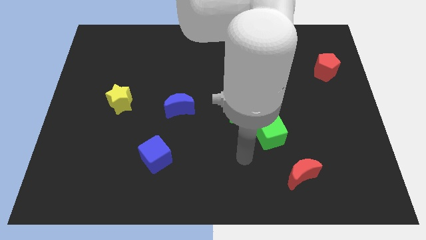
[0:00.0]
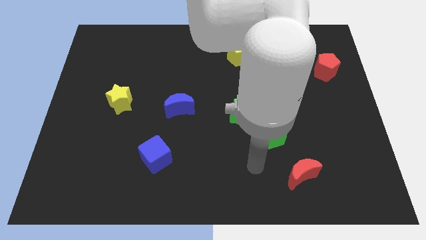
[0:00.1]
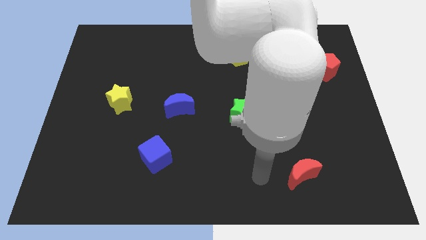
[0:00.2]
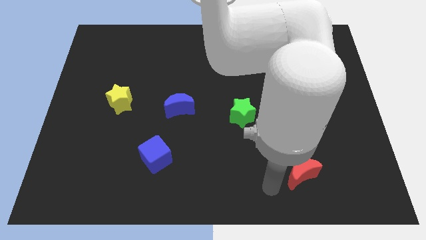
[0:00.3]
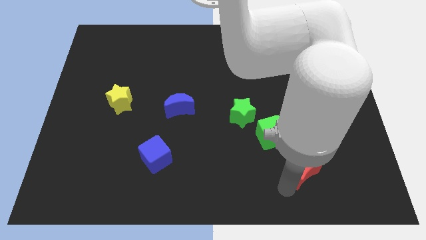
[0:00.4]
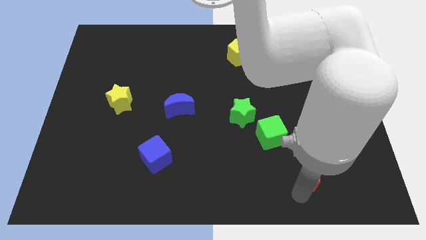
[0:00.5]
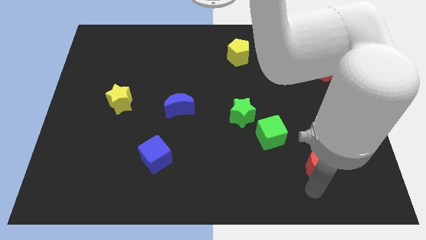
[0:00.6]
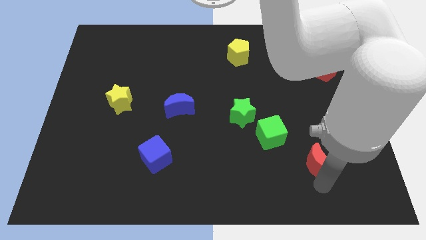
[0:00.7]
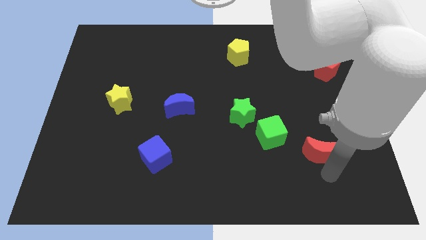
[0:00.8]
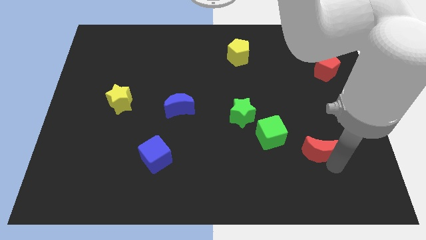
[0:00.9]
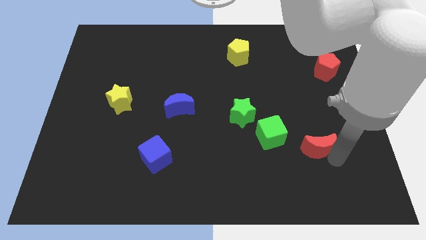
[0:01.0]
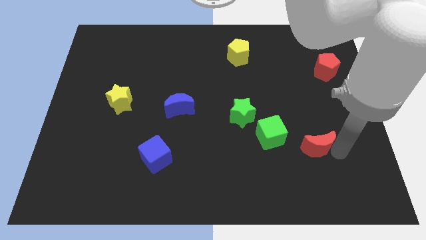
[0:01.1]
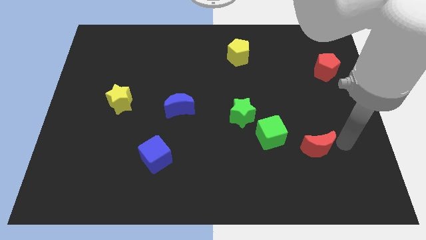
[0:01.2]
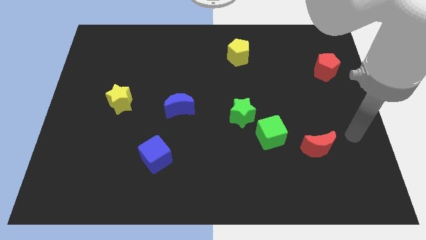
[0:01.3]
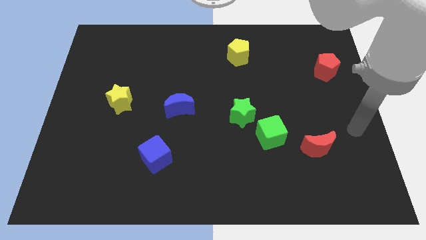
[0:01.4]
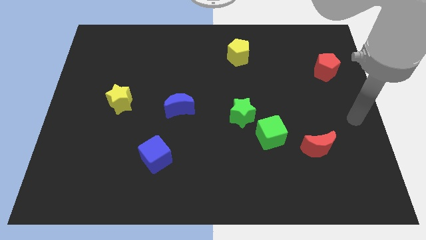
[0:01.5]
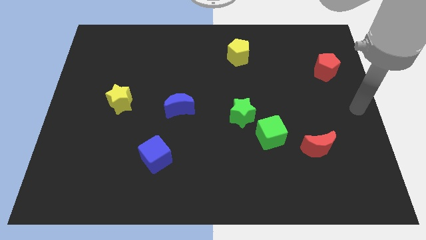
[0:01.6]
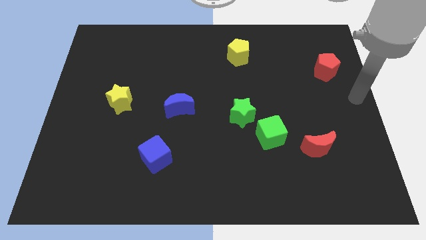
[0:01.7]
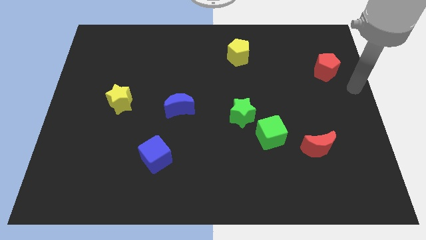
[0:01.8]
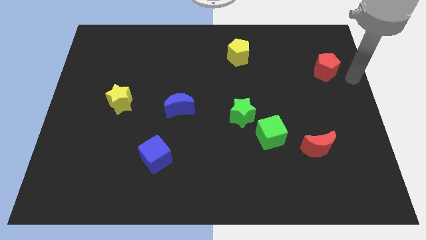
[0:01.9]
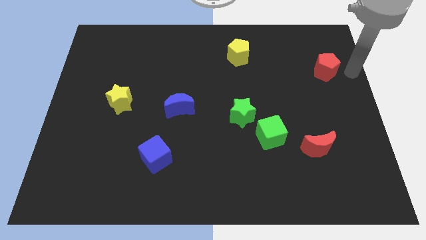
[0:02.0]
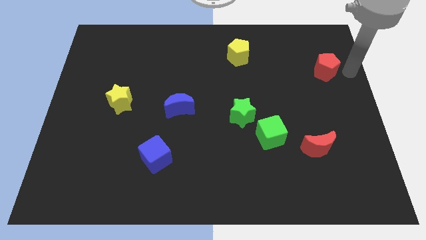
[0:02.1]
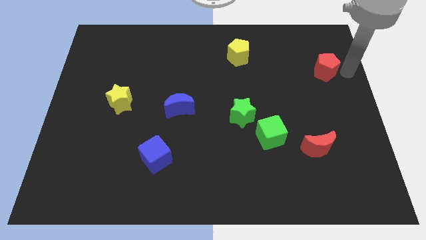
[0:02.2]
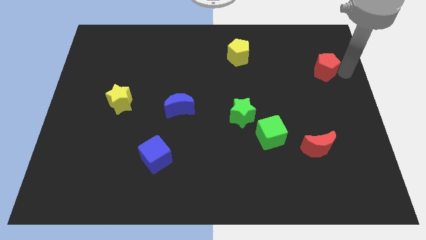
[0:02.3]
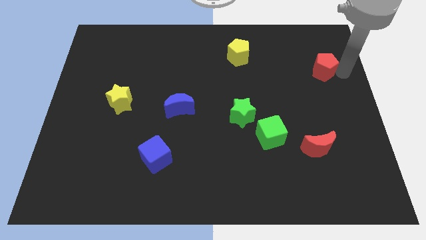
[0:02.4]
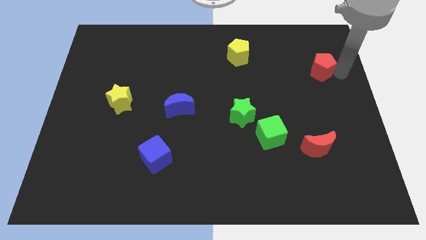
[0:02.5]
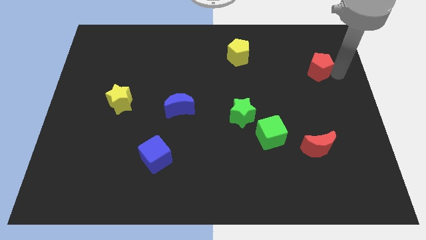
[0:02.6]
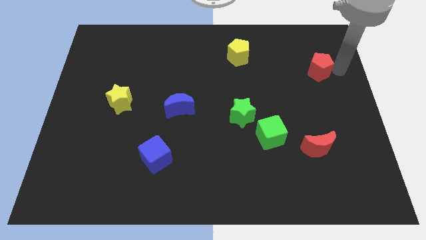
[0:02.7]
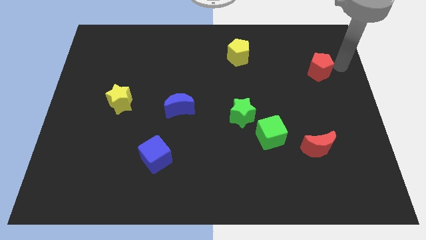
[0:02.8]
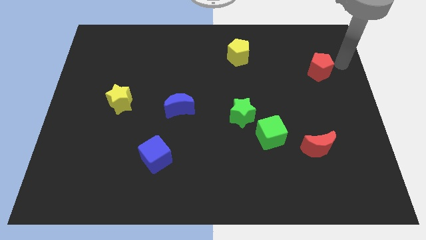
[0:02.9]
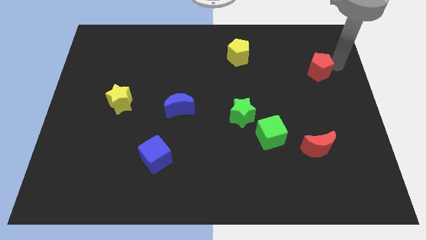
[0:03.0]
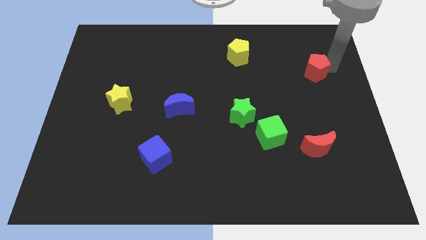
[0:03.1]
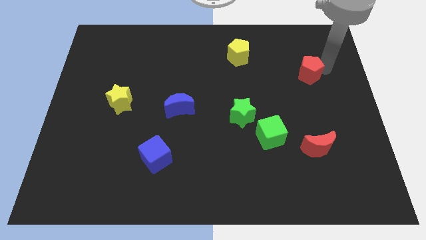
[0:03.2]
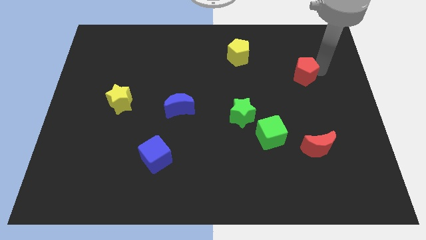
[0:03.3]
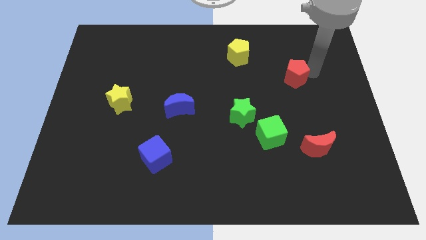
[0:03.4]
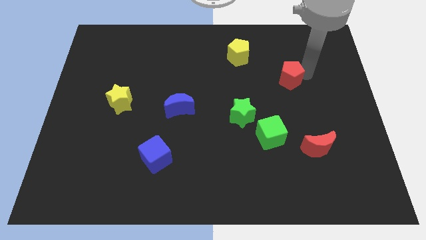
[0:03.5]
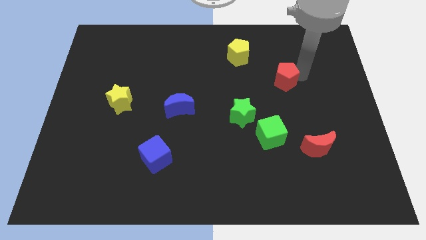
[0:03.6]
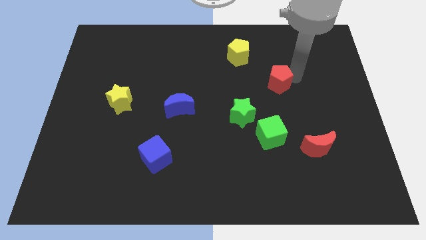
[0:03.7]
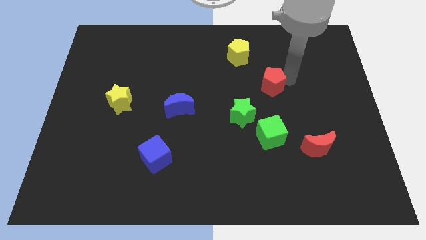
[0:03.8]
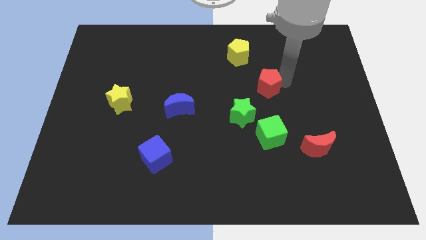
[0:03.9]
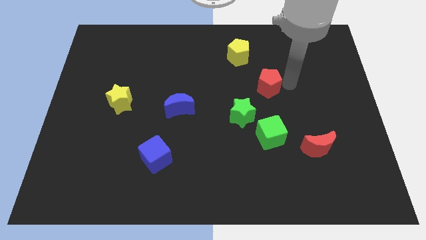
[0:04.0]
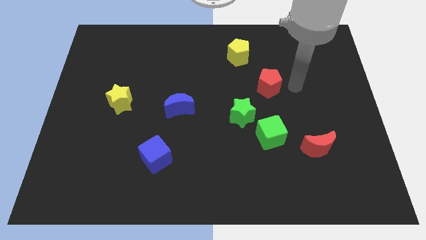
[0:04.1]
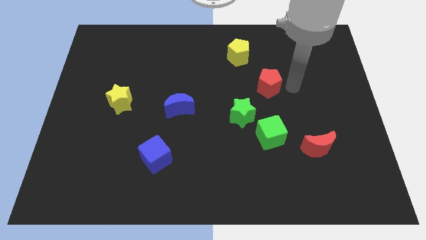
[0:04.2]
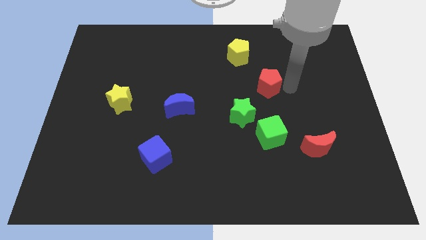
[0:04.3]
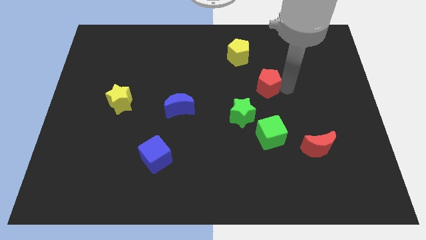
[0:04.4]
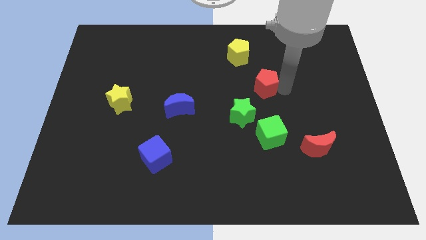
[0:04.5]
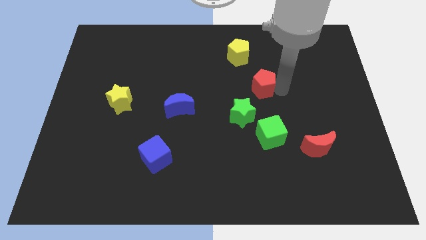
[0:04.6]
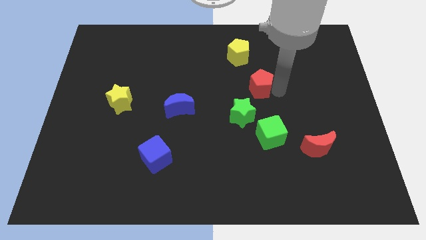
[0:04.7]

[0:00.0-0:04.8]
put the red pentagon to the bottom of the yellow pentagon

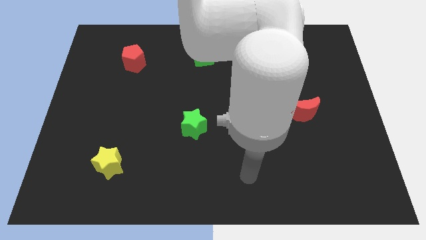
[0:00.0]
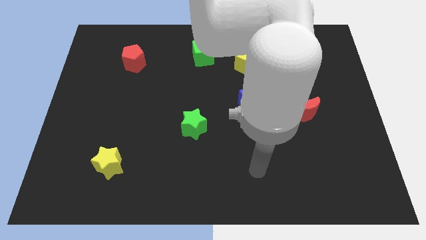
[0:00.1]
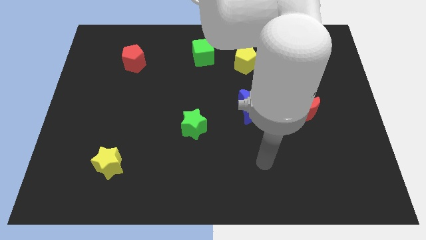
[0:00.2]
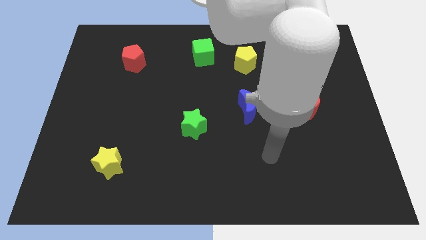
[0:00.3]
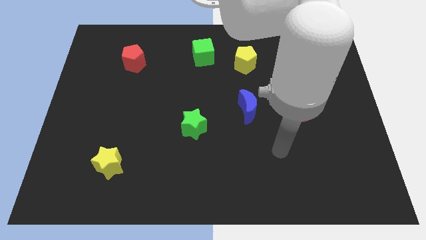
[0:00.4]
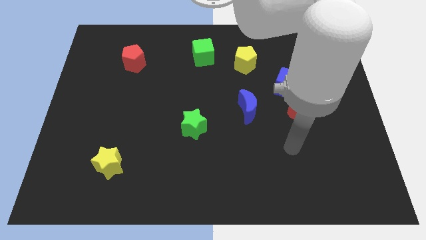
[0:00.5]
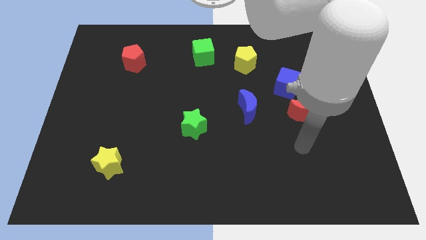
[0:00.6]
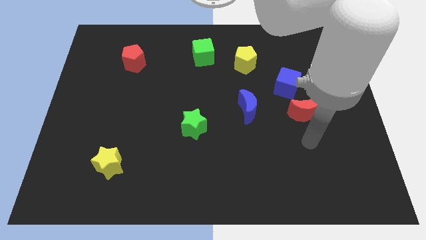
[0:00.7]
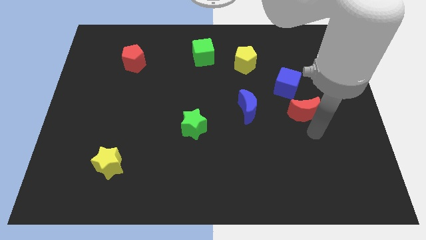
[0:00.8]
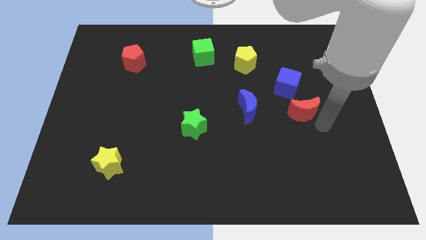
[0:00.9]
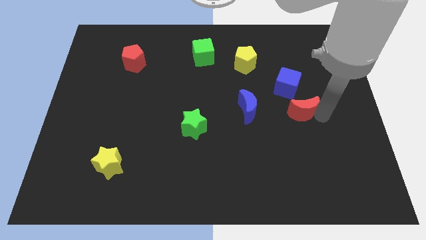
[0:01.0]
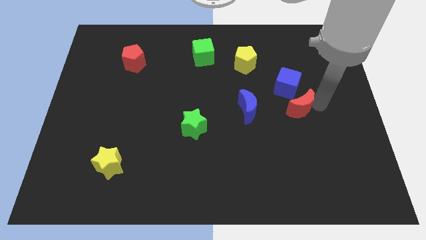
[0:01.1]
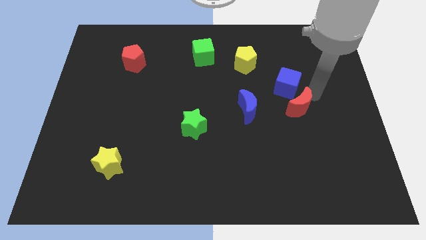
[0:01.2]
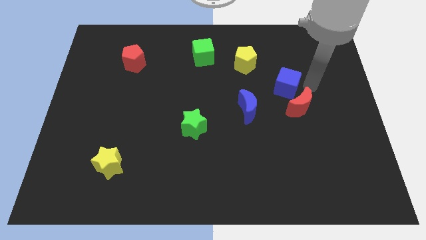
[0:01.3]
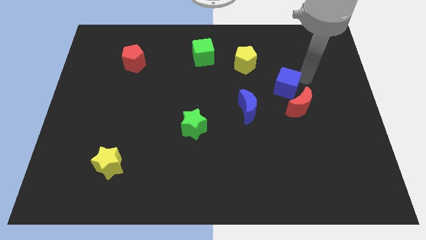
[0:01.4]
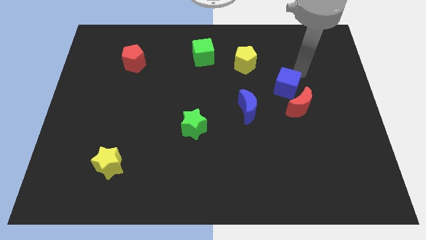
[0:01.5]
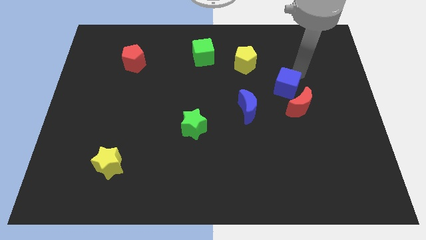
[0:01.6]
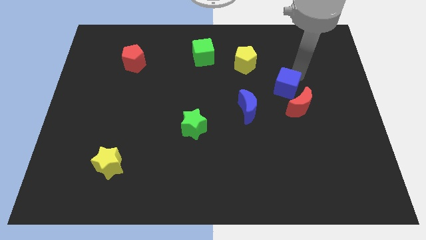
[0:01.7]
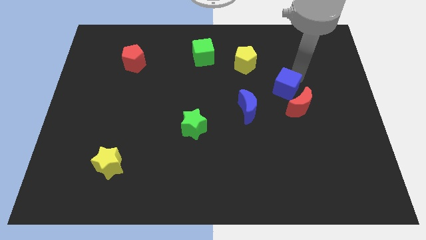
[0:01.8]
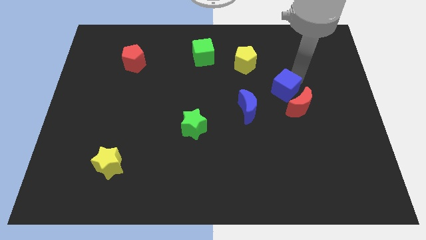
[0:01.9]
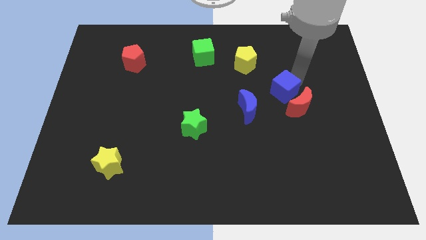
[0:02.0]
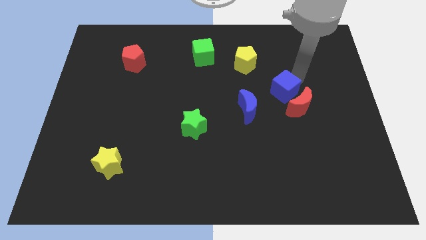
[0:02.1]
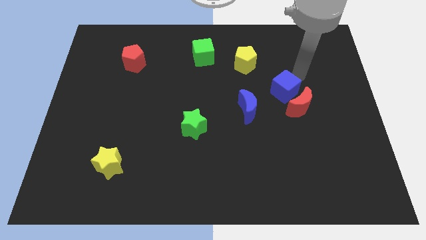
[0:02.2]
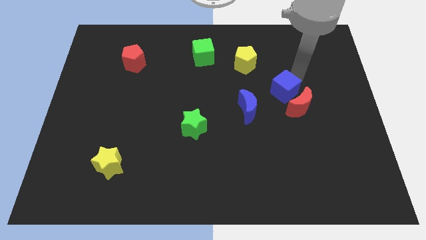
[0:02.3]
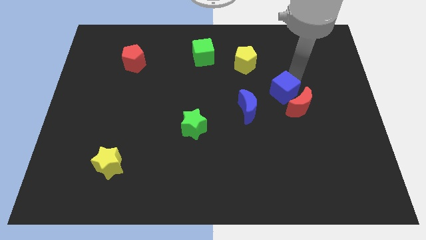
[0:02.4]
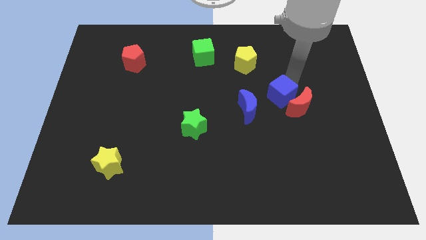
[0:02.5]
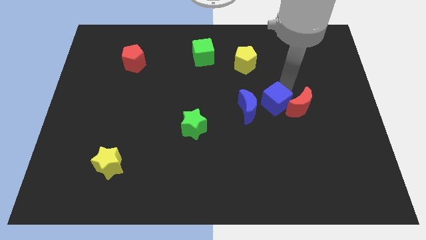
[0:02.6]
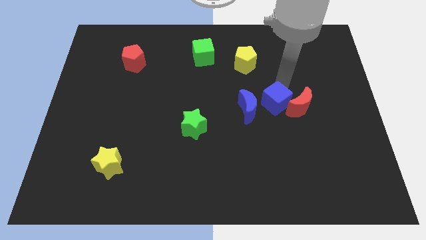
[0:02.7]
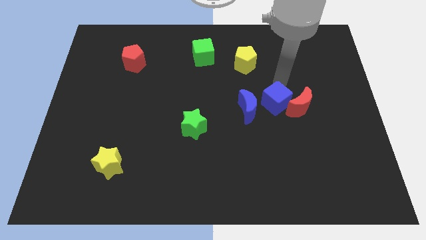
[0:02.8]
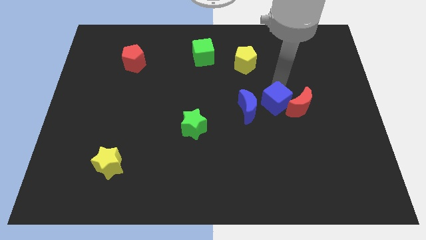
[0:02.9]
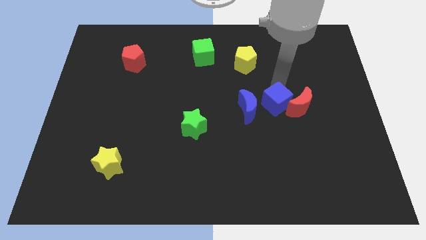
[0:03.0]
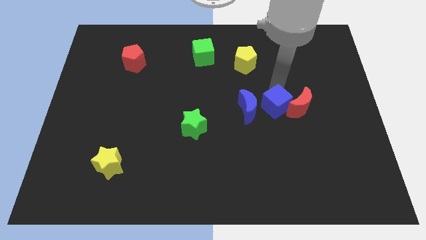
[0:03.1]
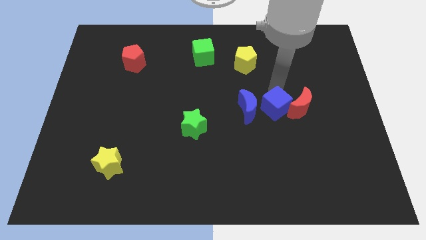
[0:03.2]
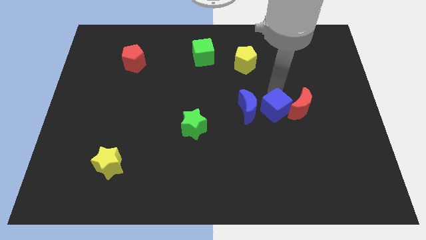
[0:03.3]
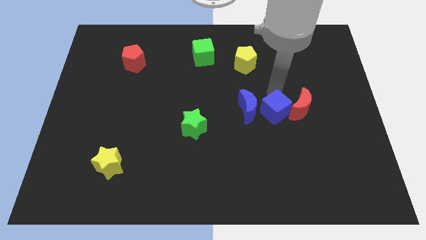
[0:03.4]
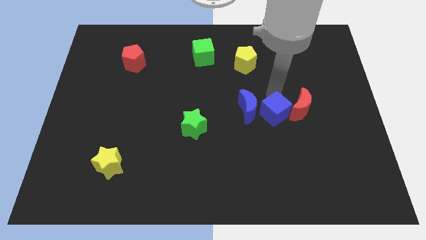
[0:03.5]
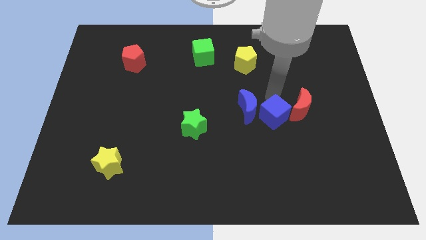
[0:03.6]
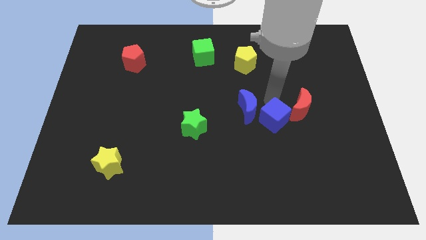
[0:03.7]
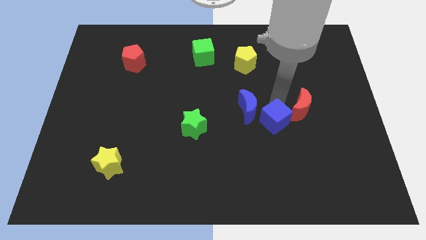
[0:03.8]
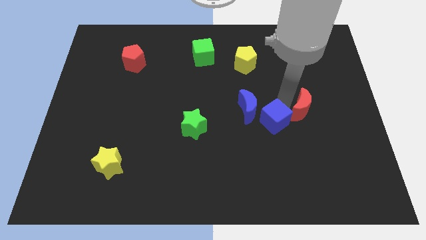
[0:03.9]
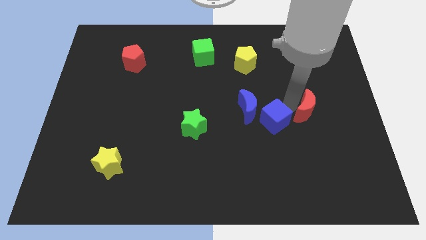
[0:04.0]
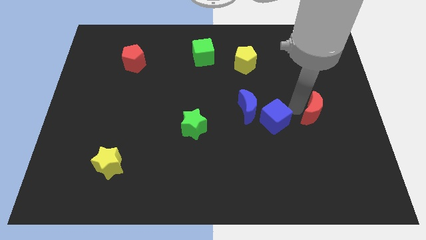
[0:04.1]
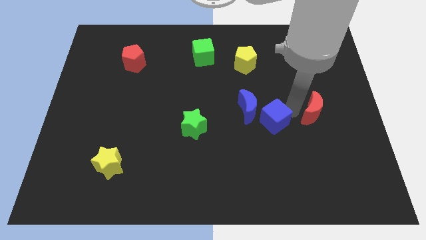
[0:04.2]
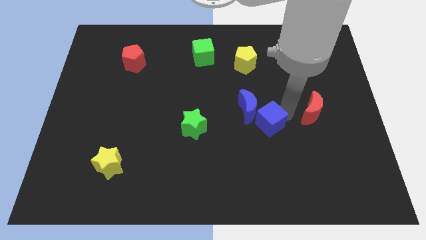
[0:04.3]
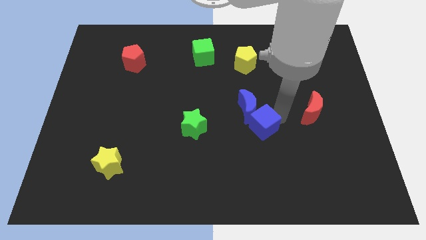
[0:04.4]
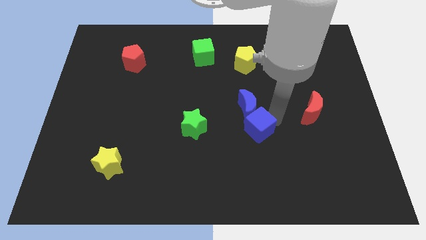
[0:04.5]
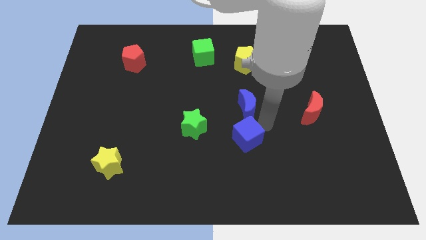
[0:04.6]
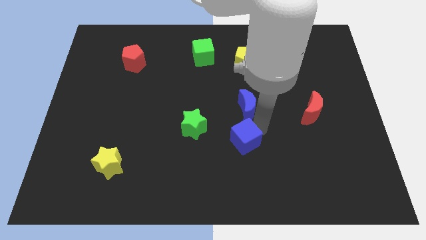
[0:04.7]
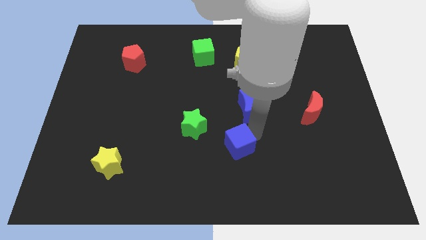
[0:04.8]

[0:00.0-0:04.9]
move the blue cube to the bottom right of the green star
